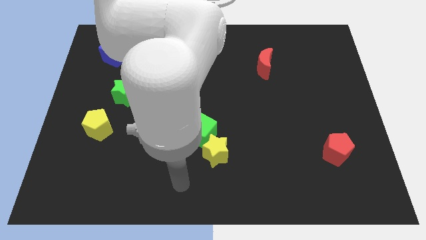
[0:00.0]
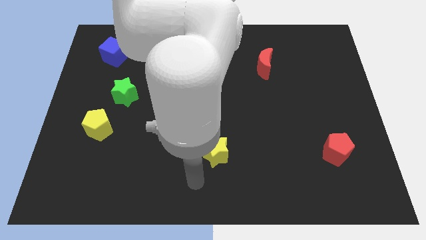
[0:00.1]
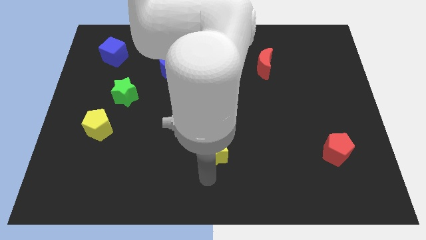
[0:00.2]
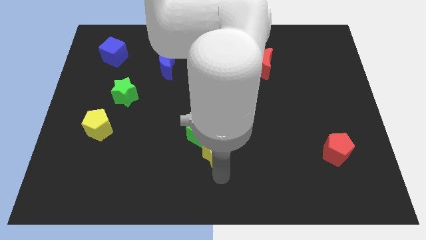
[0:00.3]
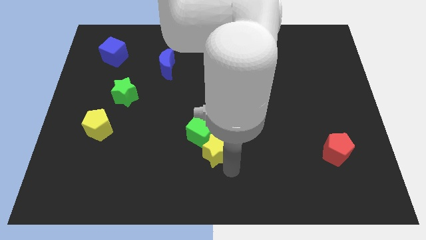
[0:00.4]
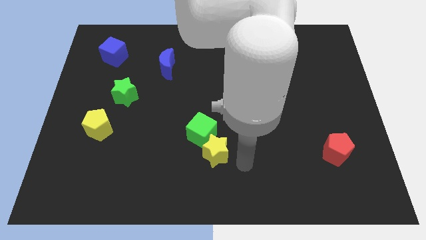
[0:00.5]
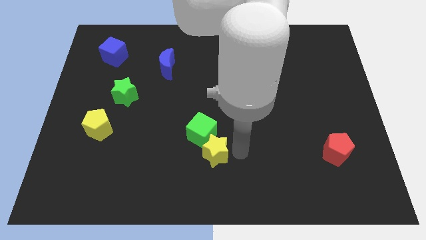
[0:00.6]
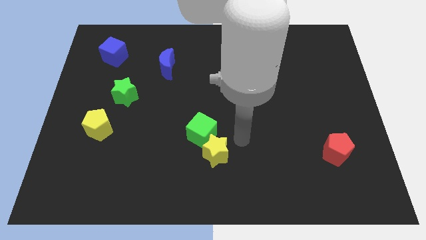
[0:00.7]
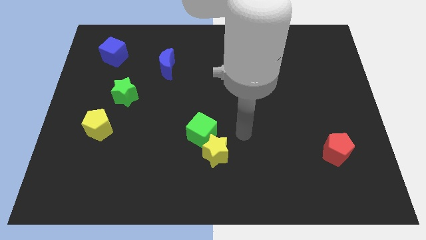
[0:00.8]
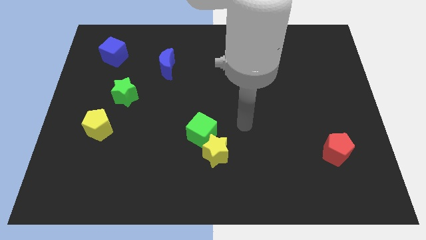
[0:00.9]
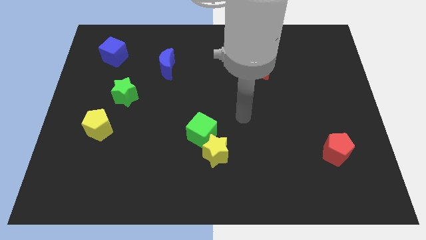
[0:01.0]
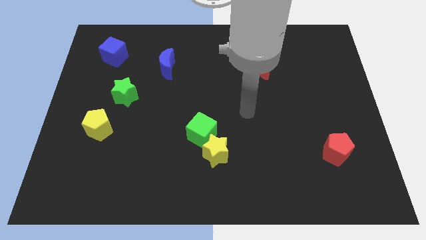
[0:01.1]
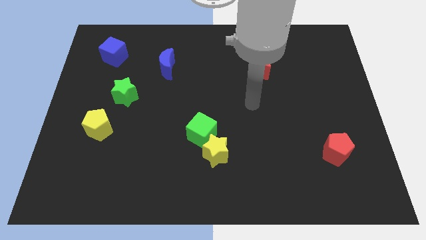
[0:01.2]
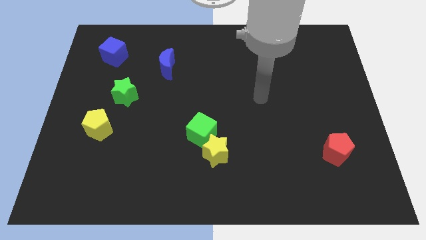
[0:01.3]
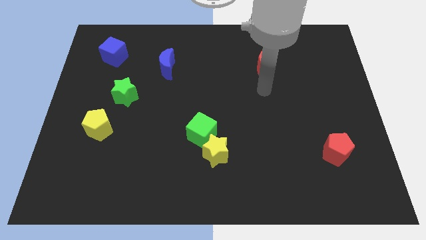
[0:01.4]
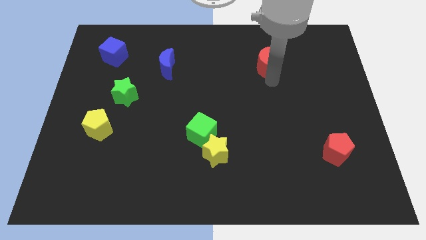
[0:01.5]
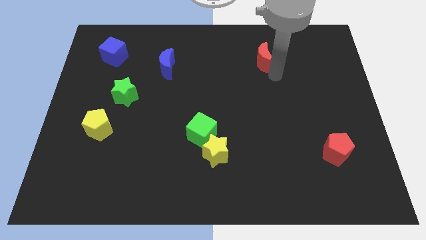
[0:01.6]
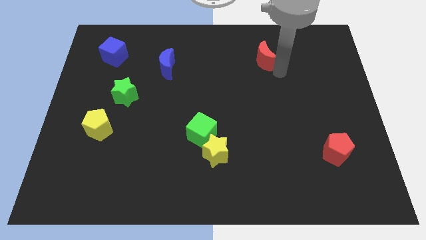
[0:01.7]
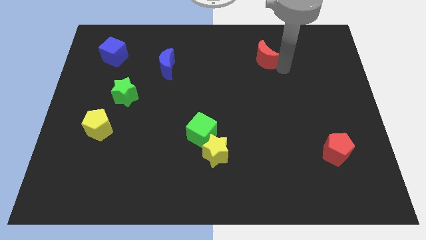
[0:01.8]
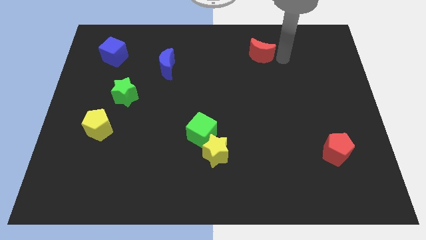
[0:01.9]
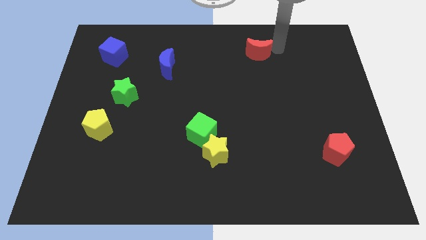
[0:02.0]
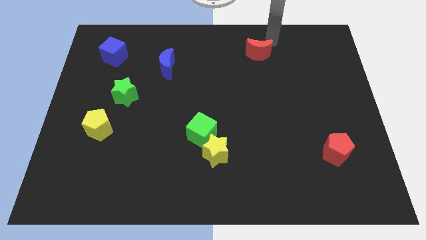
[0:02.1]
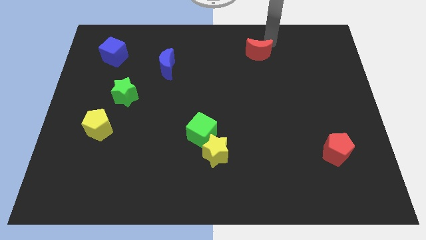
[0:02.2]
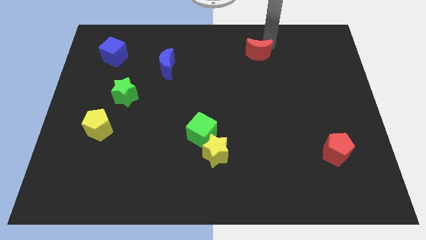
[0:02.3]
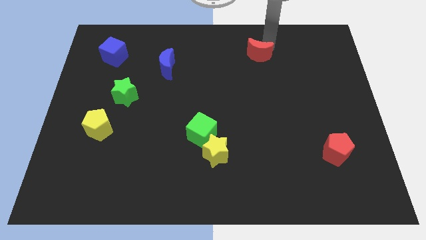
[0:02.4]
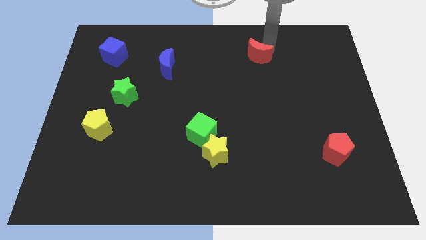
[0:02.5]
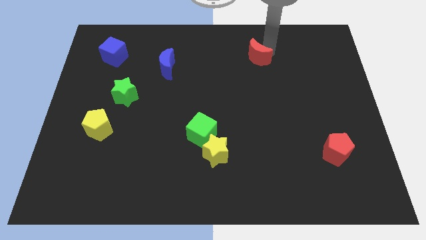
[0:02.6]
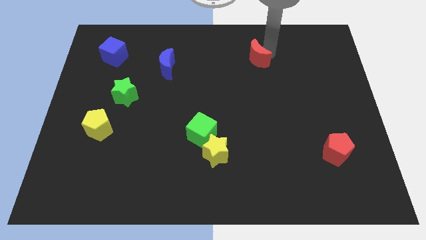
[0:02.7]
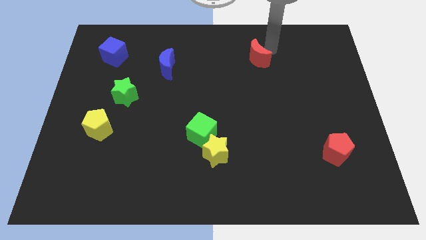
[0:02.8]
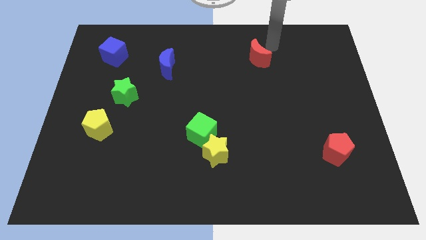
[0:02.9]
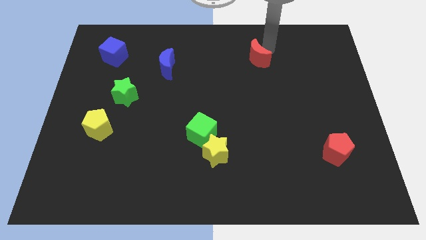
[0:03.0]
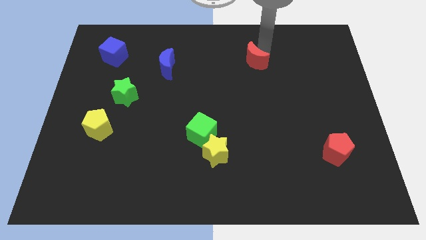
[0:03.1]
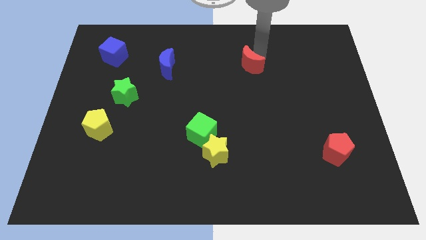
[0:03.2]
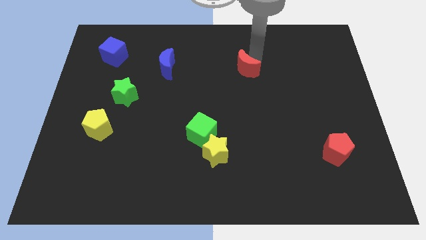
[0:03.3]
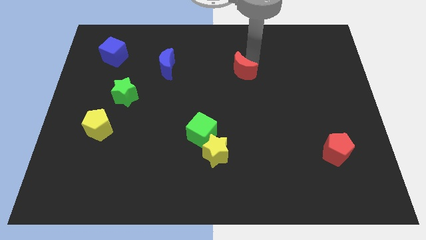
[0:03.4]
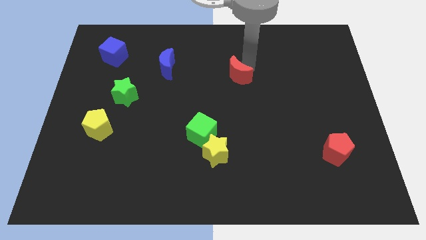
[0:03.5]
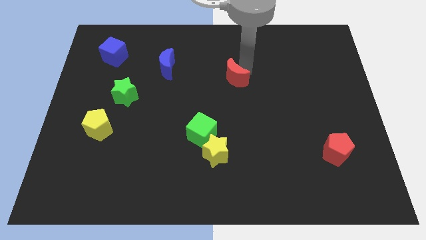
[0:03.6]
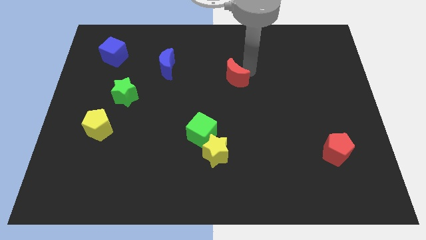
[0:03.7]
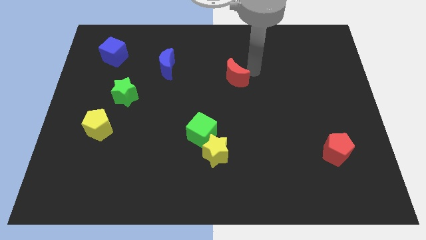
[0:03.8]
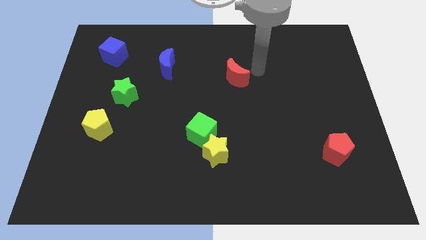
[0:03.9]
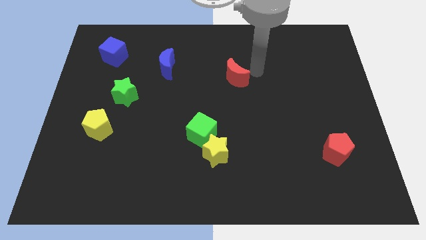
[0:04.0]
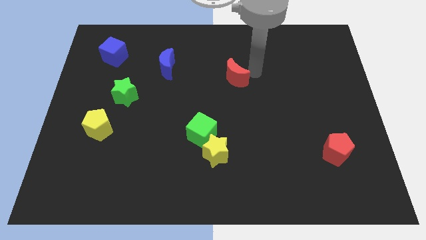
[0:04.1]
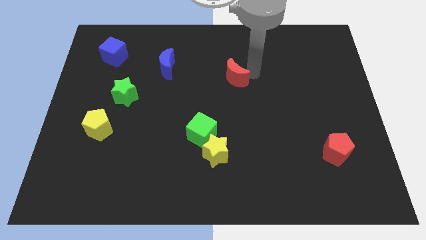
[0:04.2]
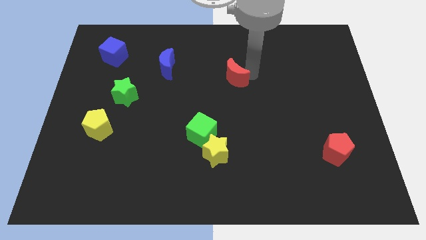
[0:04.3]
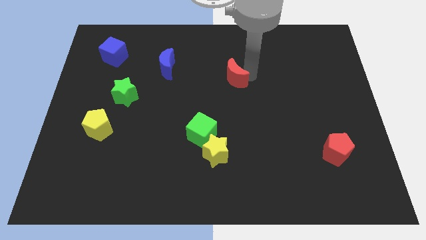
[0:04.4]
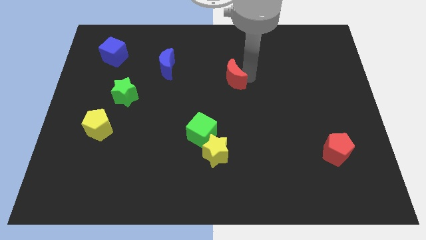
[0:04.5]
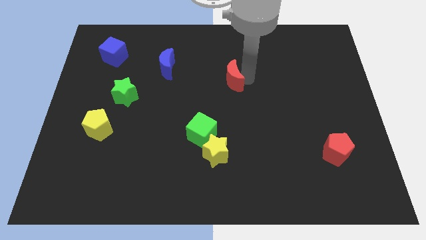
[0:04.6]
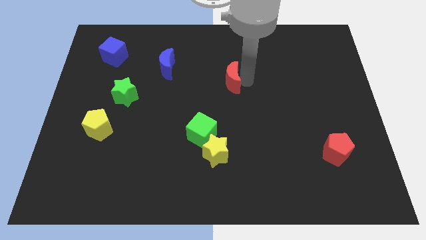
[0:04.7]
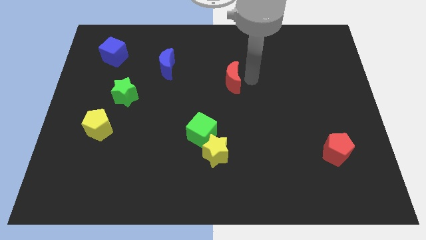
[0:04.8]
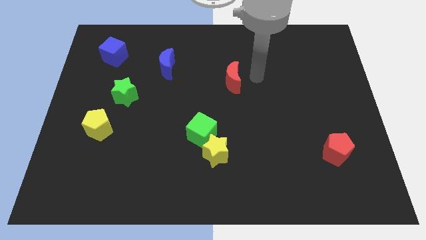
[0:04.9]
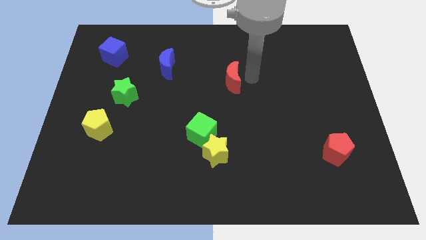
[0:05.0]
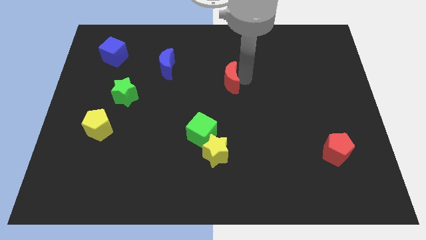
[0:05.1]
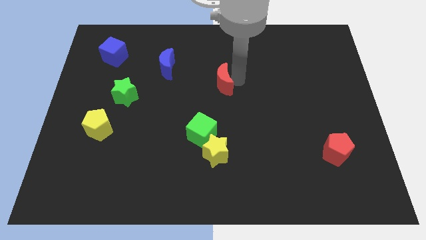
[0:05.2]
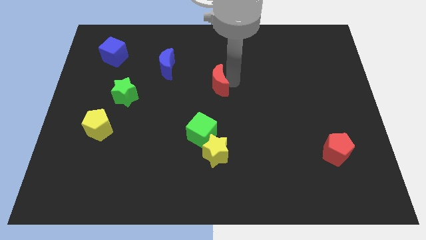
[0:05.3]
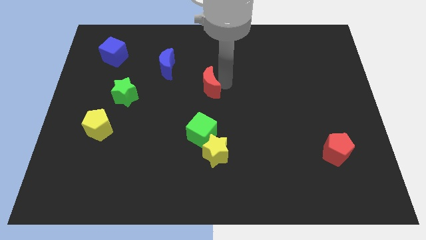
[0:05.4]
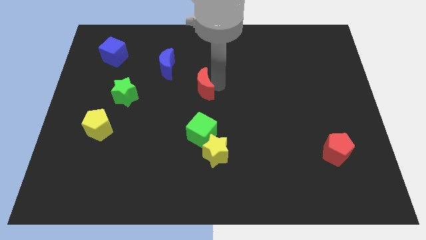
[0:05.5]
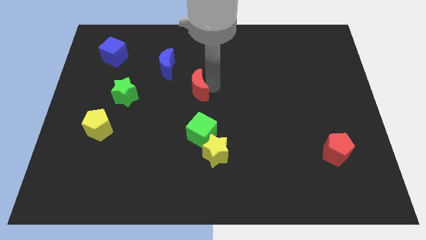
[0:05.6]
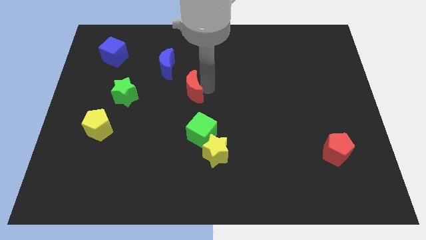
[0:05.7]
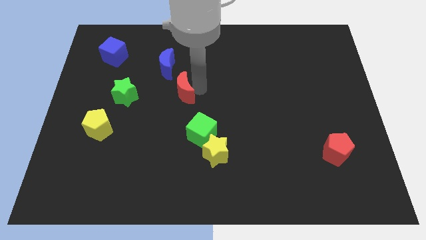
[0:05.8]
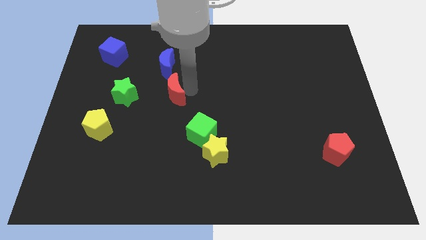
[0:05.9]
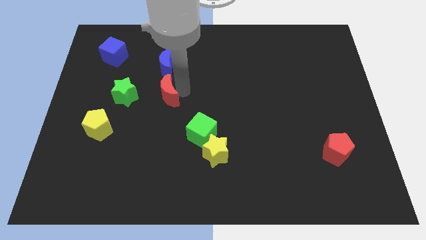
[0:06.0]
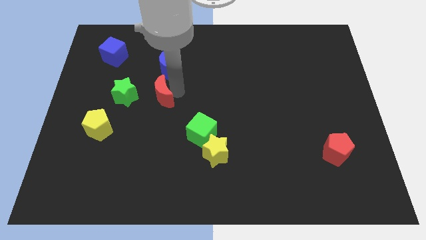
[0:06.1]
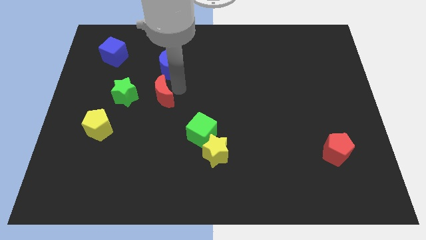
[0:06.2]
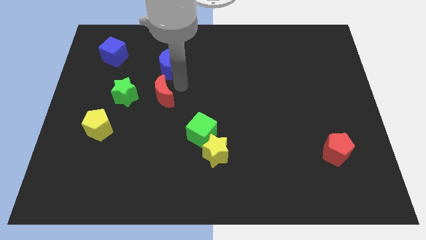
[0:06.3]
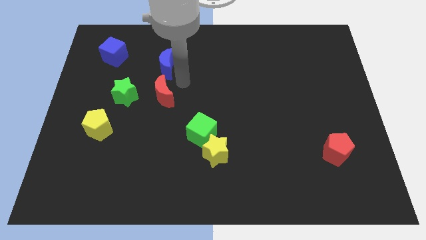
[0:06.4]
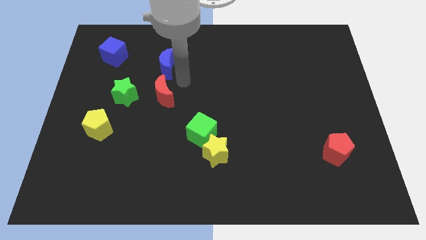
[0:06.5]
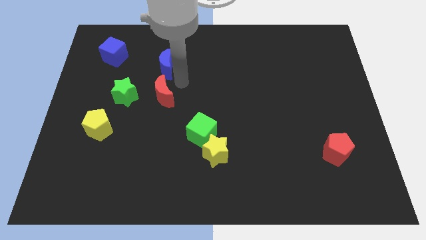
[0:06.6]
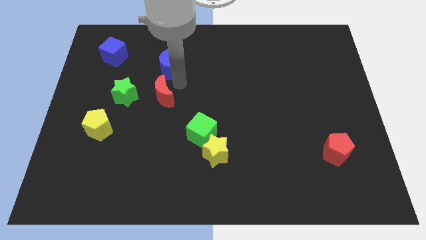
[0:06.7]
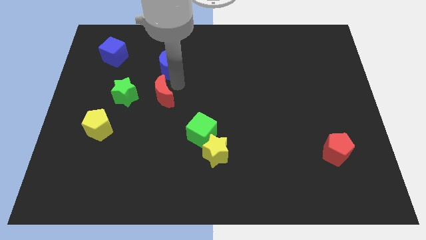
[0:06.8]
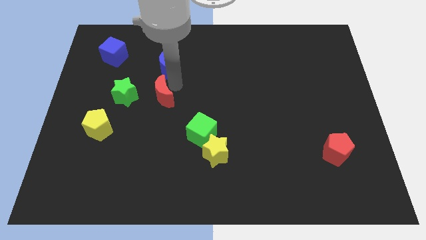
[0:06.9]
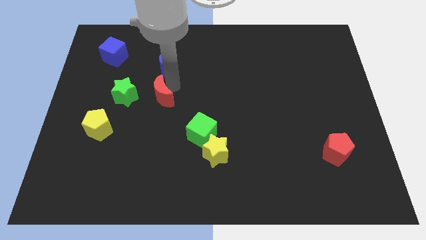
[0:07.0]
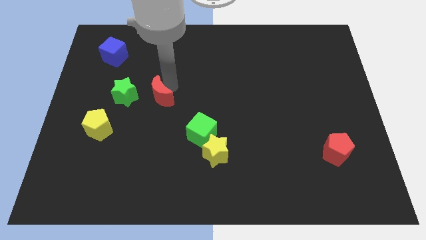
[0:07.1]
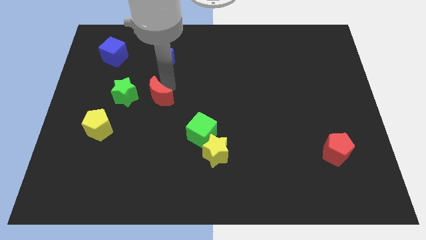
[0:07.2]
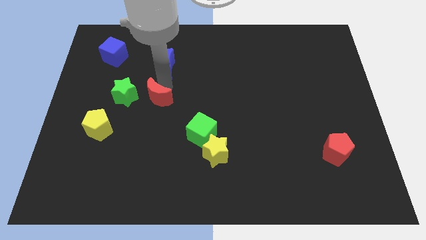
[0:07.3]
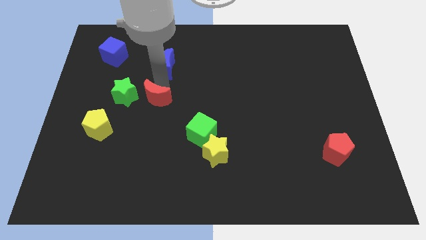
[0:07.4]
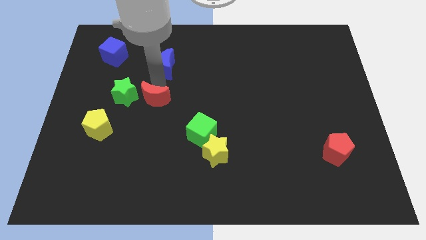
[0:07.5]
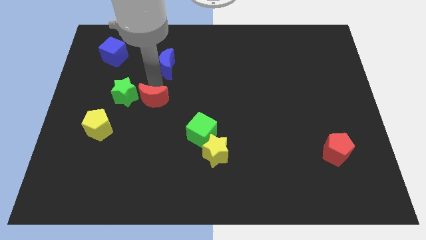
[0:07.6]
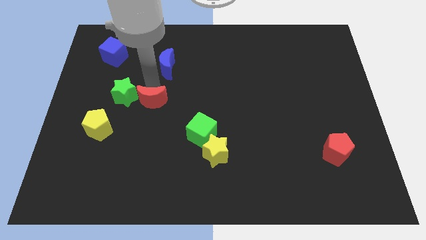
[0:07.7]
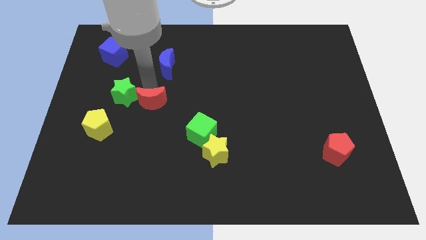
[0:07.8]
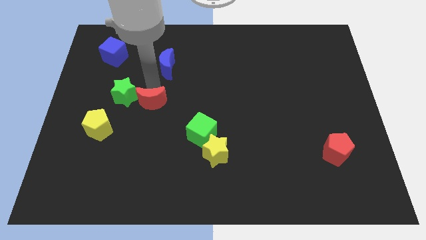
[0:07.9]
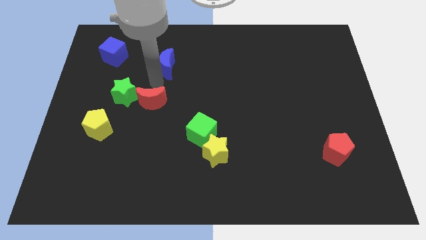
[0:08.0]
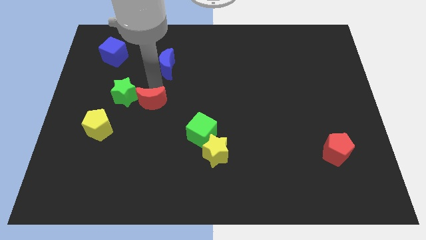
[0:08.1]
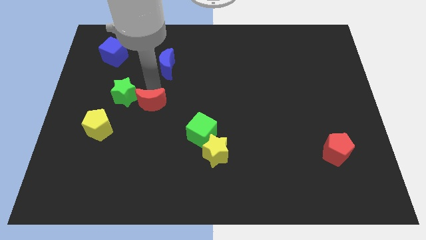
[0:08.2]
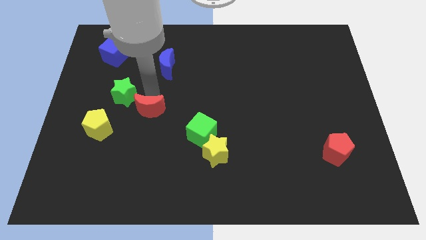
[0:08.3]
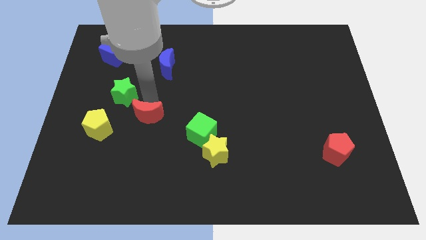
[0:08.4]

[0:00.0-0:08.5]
slide the red moon to the right of the yellow pentagon
